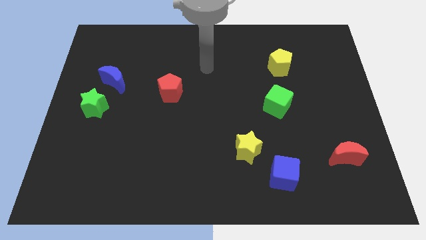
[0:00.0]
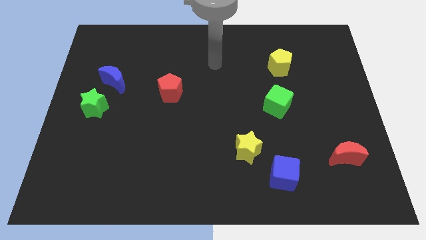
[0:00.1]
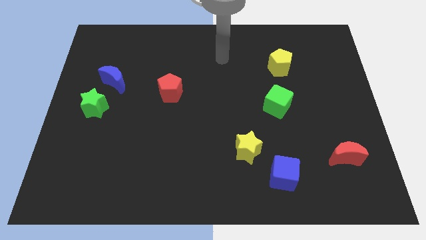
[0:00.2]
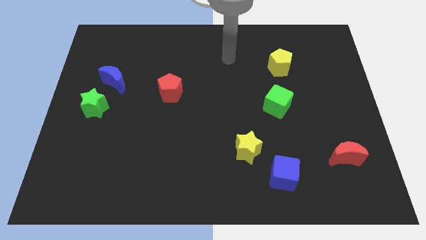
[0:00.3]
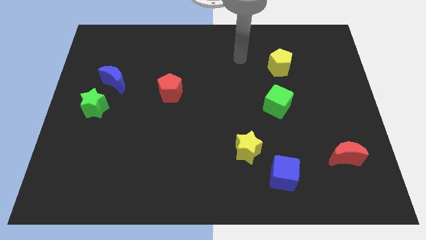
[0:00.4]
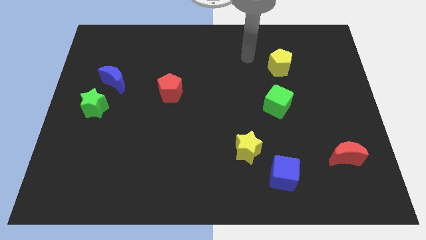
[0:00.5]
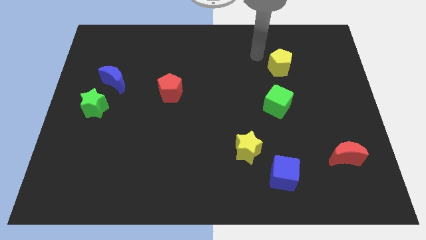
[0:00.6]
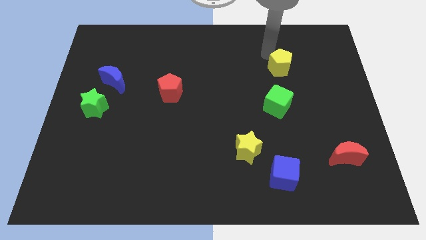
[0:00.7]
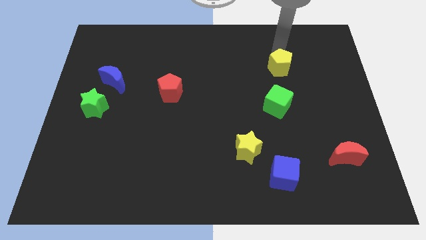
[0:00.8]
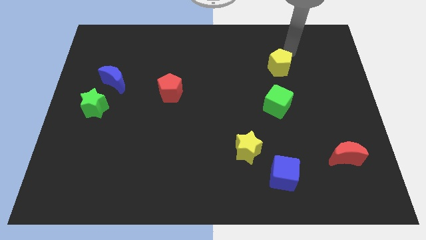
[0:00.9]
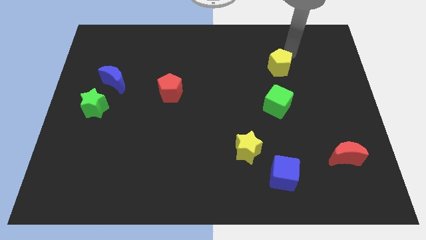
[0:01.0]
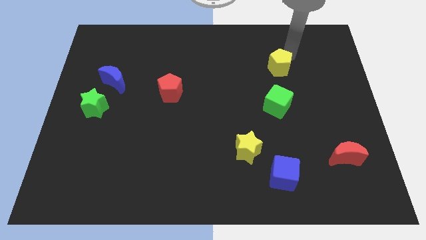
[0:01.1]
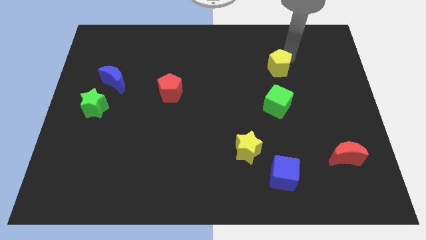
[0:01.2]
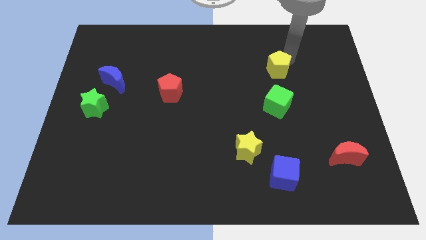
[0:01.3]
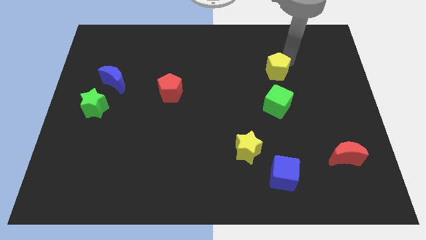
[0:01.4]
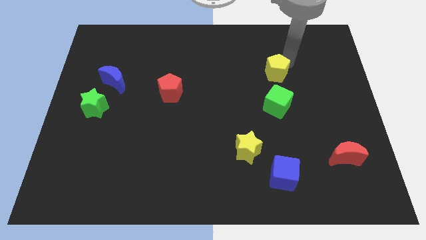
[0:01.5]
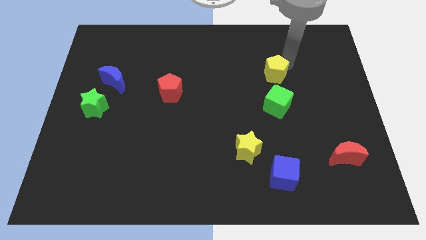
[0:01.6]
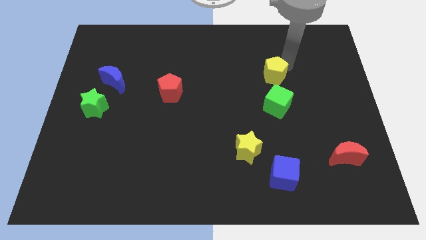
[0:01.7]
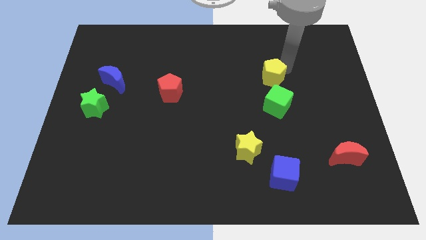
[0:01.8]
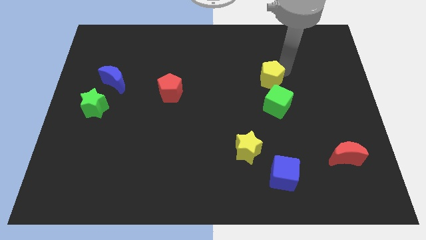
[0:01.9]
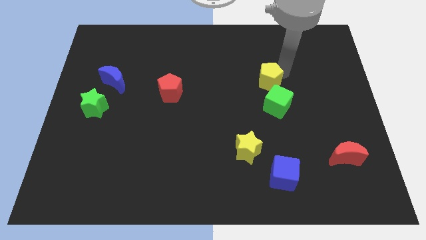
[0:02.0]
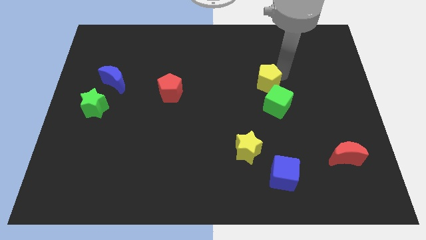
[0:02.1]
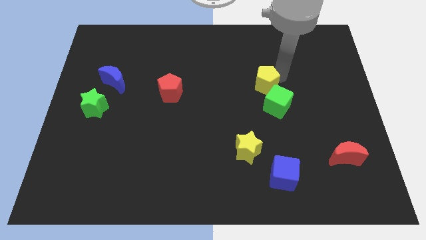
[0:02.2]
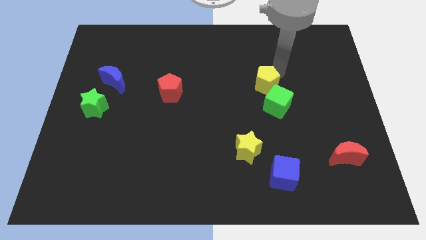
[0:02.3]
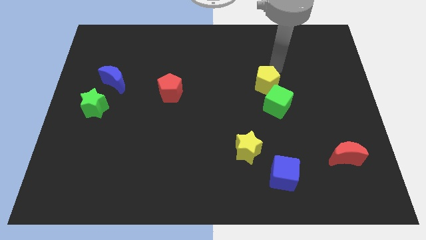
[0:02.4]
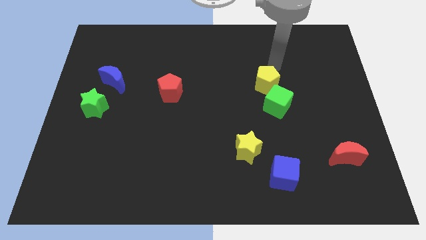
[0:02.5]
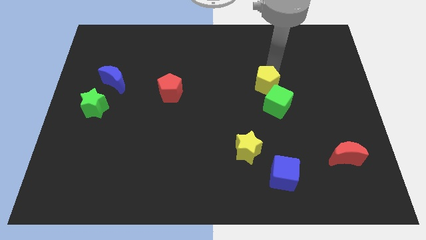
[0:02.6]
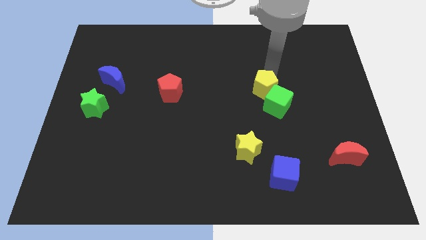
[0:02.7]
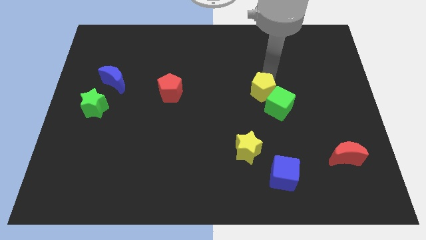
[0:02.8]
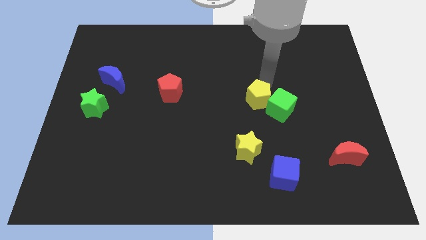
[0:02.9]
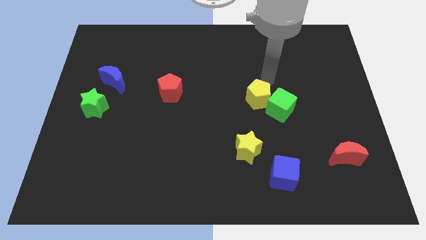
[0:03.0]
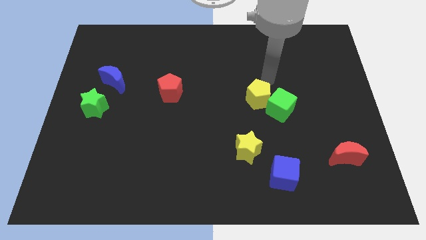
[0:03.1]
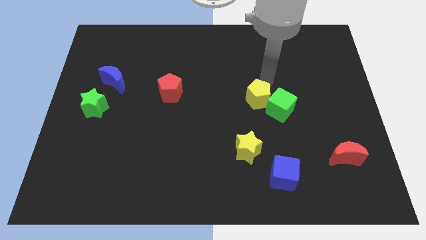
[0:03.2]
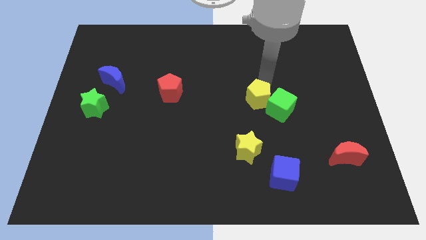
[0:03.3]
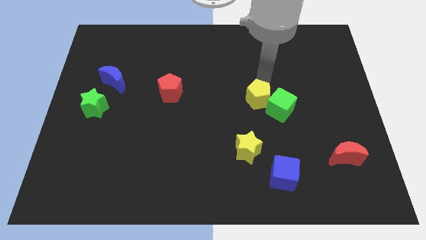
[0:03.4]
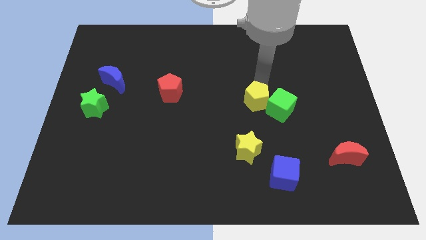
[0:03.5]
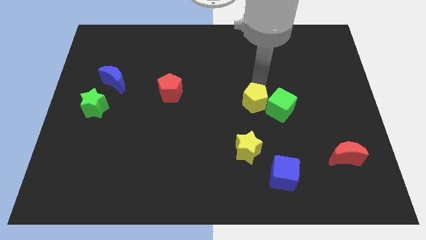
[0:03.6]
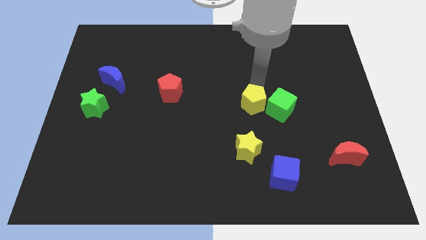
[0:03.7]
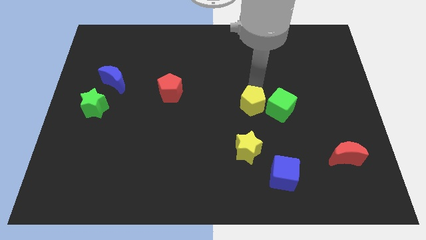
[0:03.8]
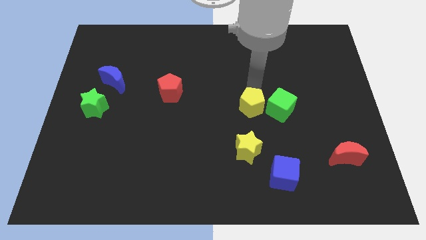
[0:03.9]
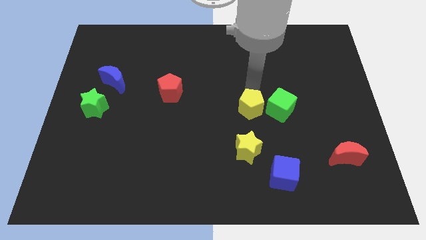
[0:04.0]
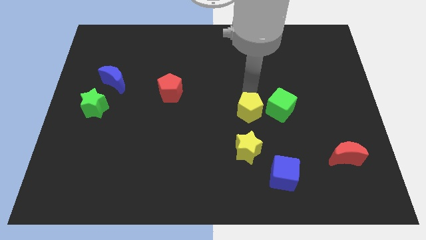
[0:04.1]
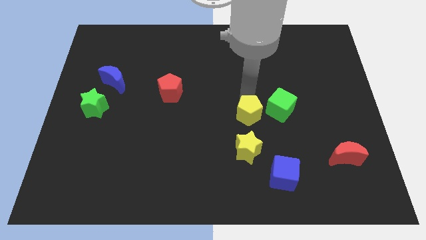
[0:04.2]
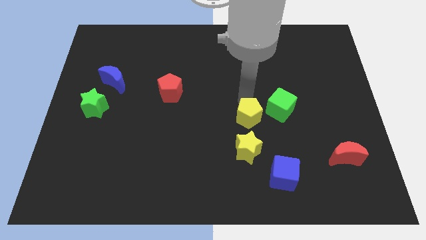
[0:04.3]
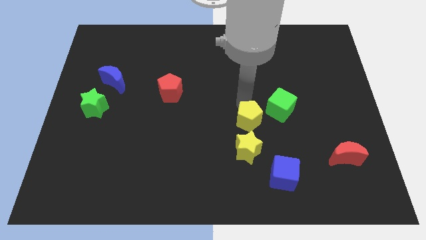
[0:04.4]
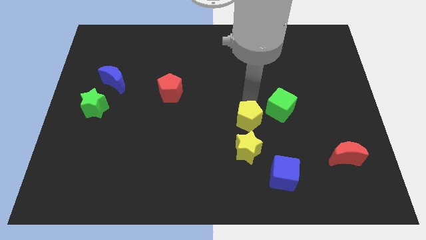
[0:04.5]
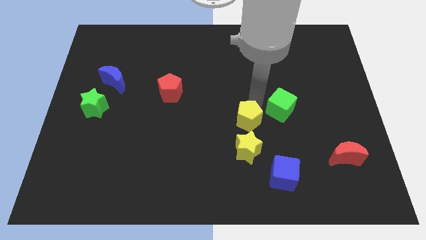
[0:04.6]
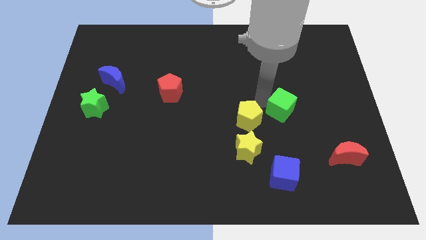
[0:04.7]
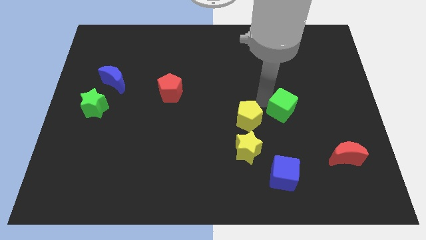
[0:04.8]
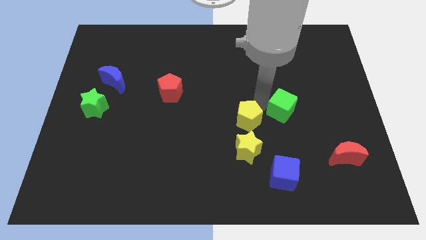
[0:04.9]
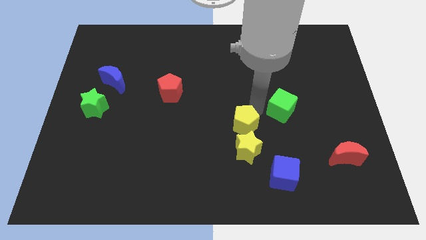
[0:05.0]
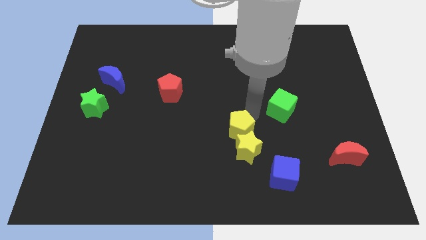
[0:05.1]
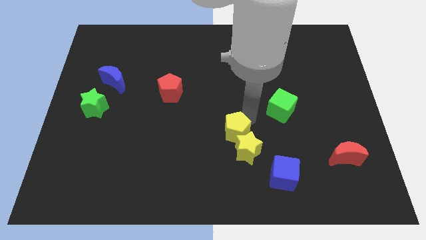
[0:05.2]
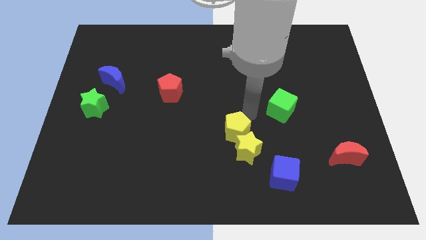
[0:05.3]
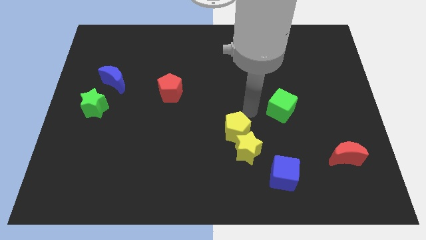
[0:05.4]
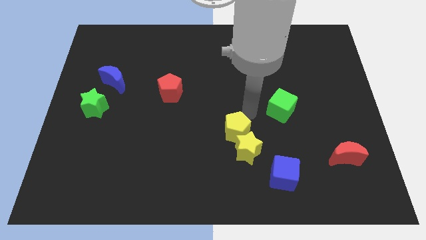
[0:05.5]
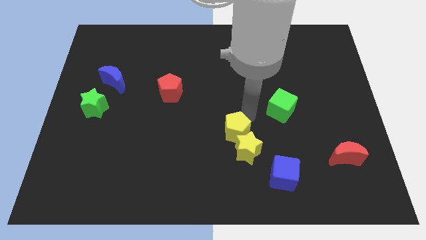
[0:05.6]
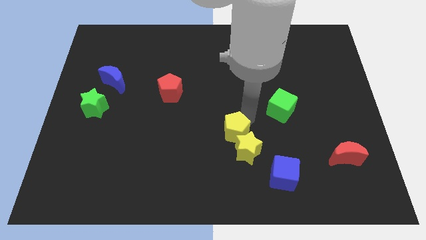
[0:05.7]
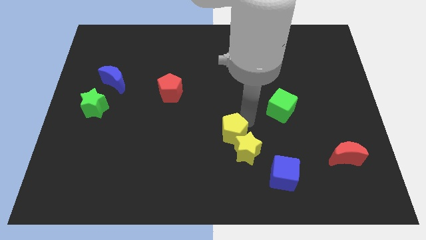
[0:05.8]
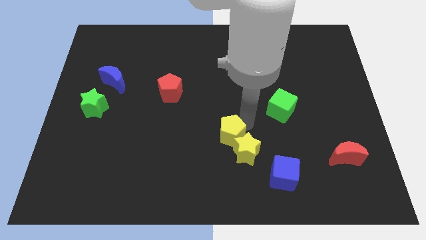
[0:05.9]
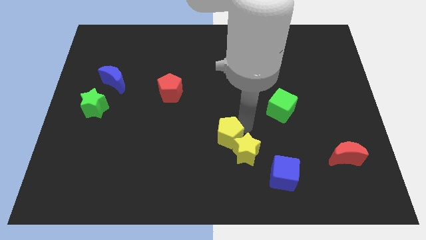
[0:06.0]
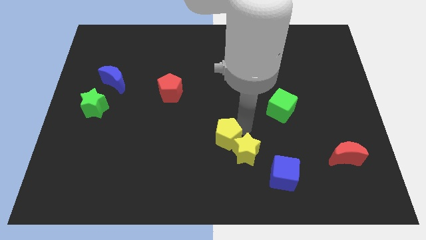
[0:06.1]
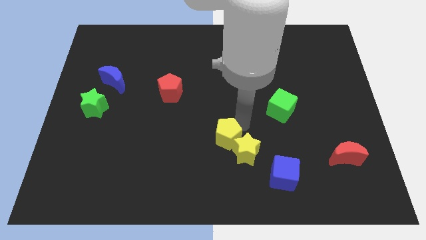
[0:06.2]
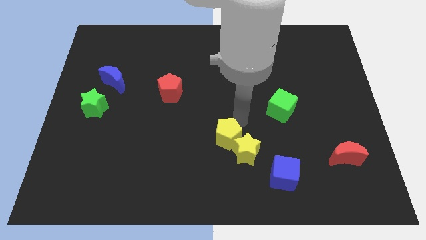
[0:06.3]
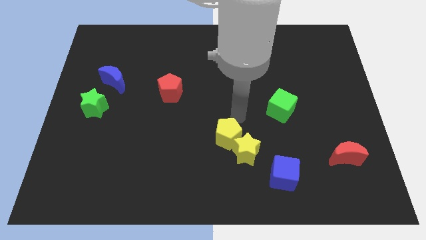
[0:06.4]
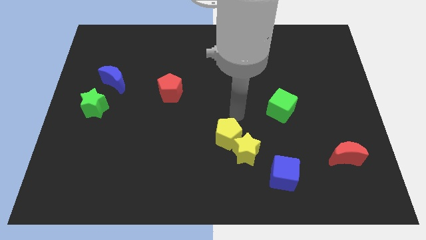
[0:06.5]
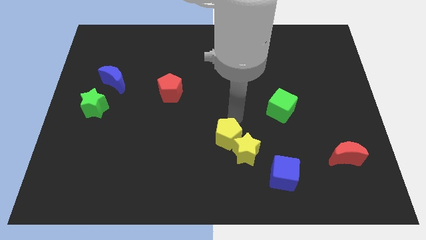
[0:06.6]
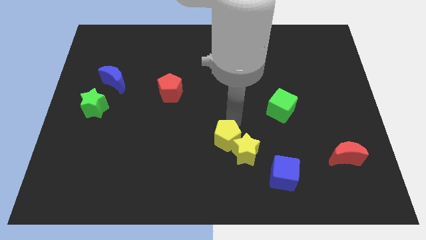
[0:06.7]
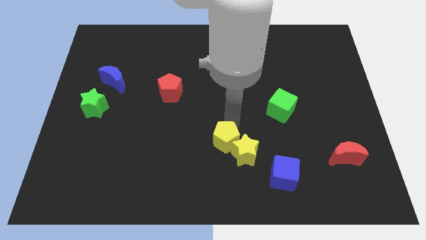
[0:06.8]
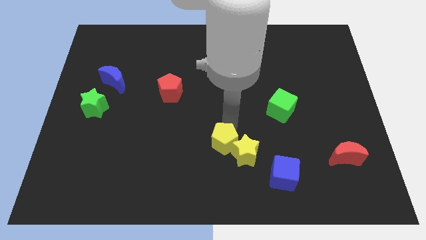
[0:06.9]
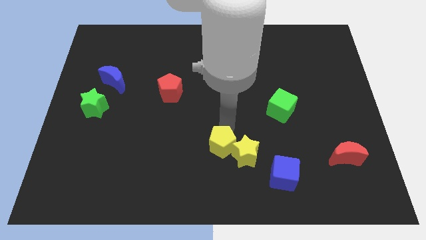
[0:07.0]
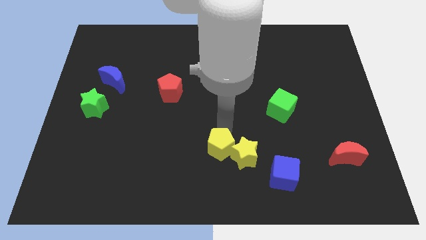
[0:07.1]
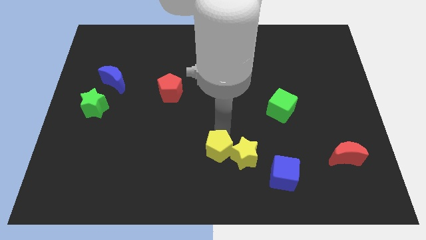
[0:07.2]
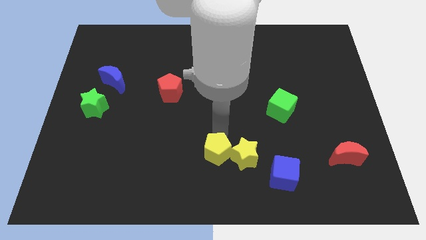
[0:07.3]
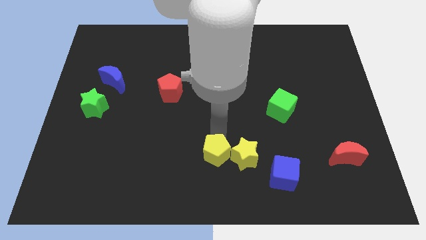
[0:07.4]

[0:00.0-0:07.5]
put the yellow pentagon to the bottom side
